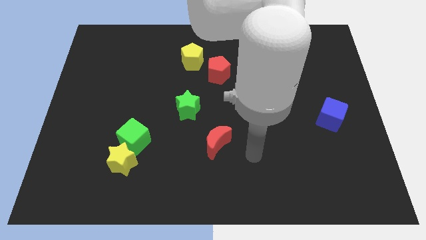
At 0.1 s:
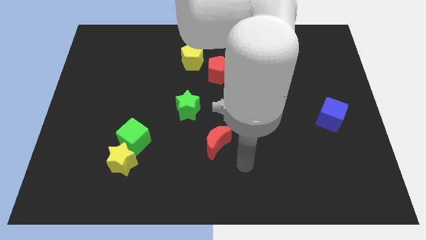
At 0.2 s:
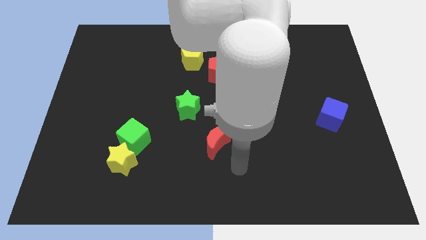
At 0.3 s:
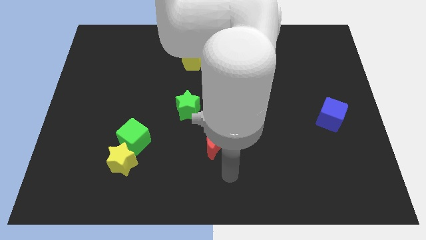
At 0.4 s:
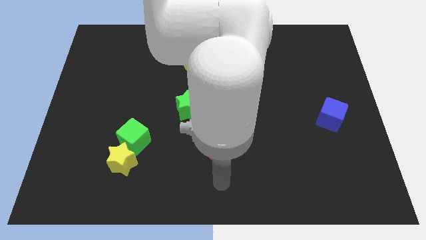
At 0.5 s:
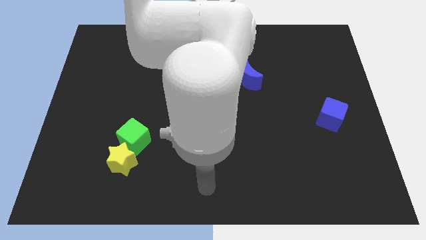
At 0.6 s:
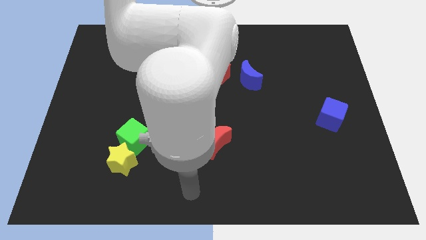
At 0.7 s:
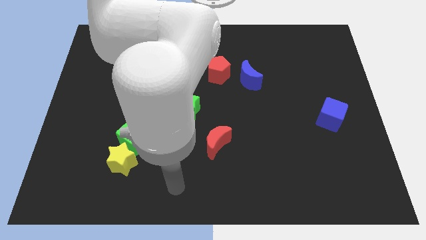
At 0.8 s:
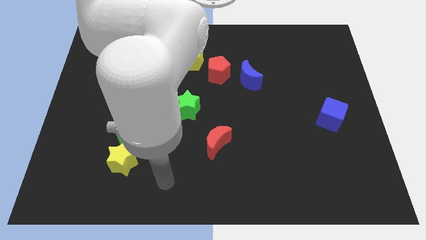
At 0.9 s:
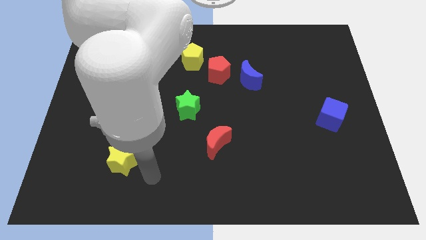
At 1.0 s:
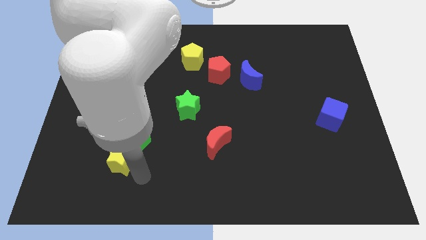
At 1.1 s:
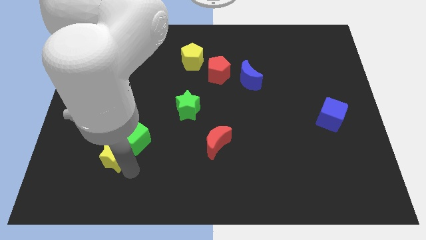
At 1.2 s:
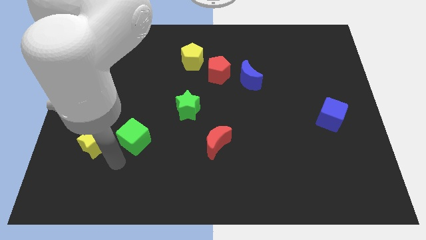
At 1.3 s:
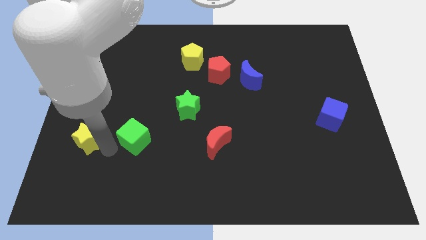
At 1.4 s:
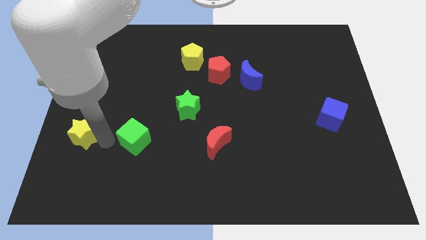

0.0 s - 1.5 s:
move the green cube away from the yellow star

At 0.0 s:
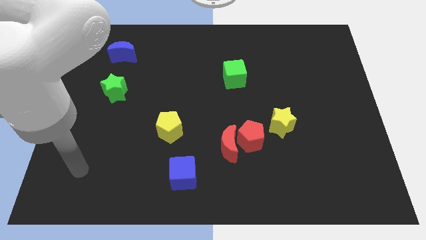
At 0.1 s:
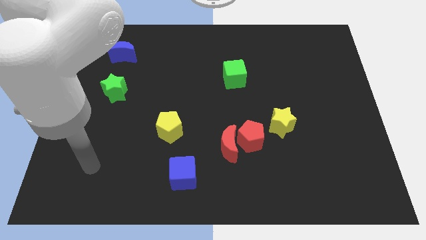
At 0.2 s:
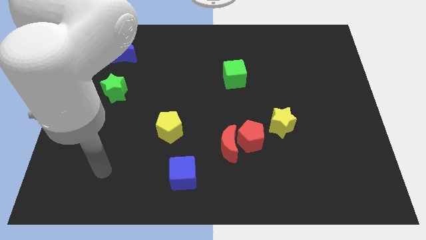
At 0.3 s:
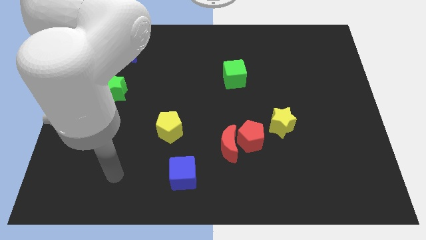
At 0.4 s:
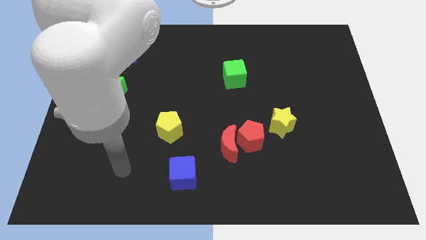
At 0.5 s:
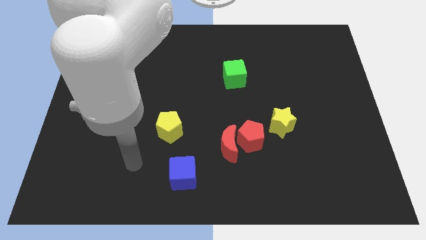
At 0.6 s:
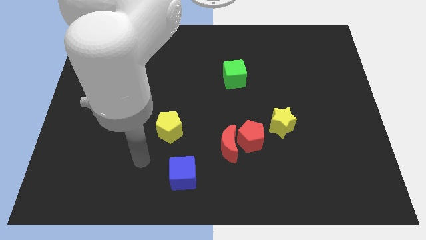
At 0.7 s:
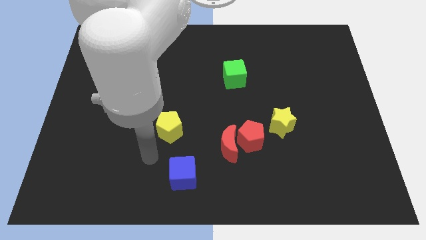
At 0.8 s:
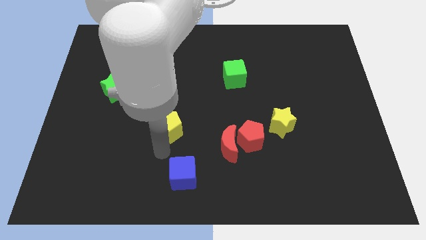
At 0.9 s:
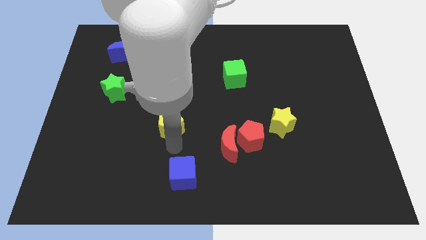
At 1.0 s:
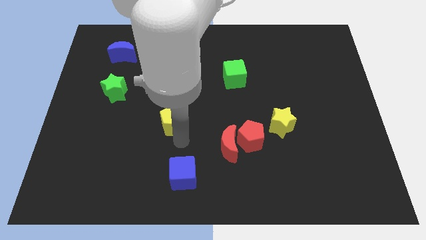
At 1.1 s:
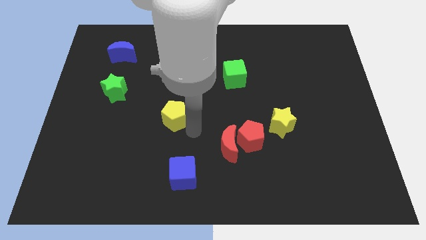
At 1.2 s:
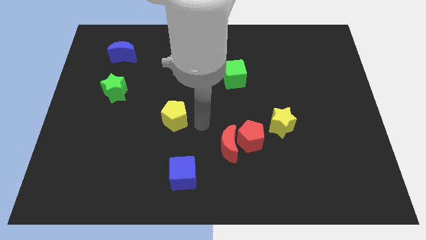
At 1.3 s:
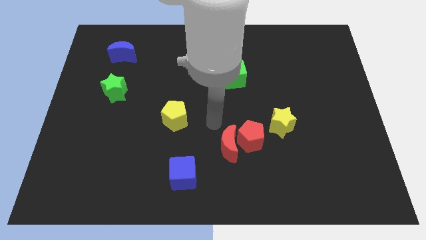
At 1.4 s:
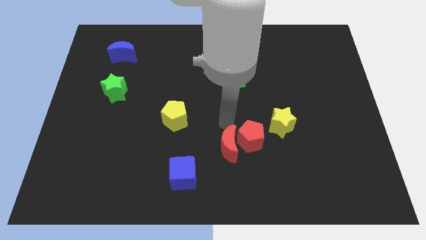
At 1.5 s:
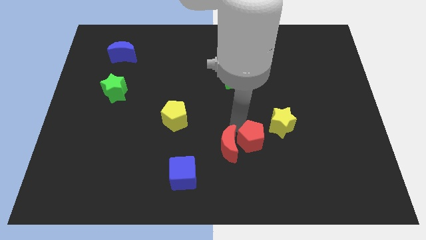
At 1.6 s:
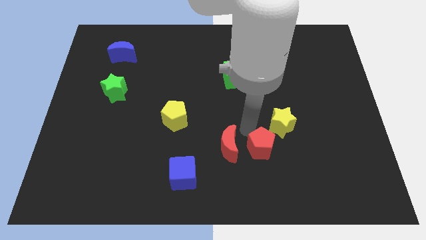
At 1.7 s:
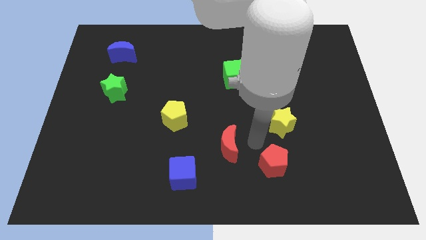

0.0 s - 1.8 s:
separate the red moon from the red pentagon

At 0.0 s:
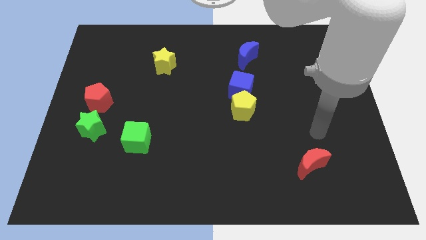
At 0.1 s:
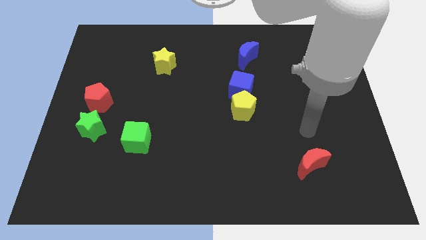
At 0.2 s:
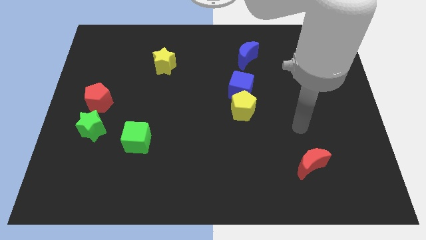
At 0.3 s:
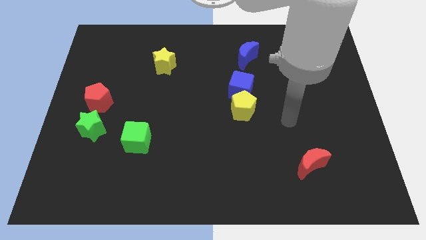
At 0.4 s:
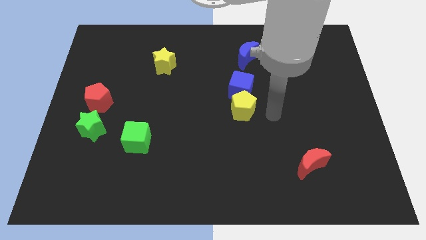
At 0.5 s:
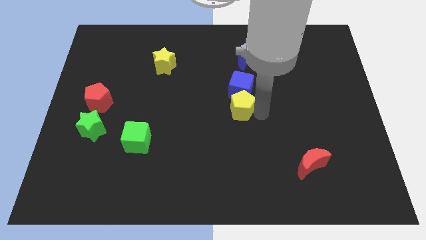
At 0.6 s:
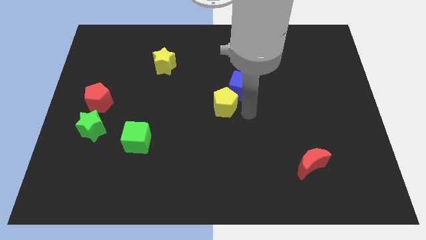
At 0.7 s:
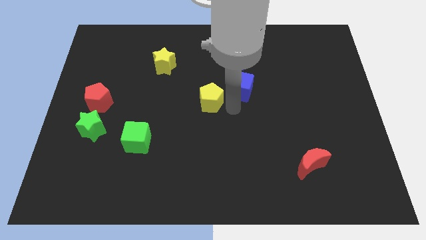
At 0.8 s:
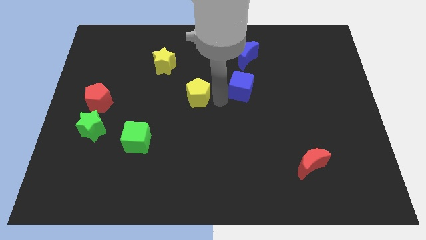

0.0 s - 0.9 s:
separate the blue cube from the yellow pentagon

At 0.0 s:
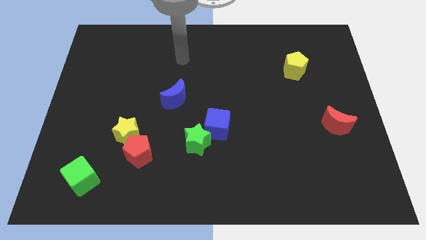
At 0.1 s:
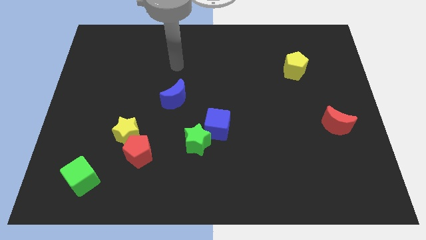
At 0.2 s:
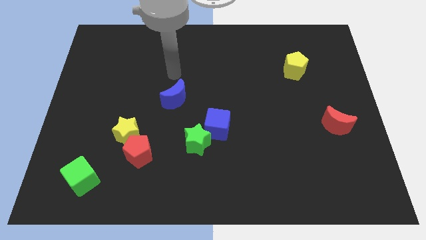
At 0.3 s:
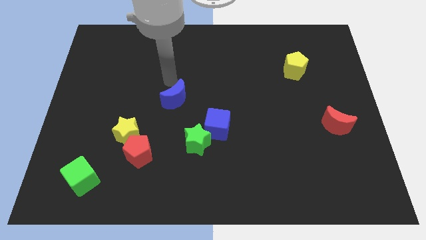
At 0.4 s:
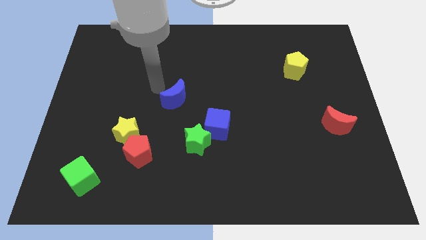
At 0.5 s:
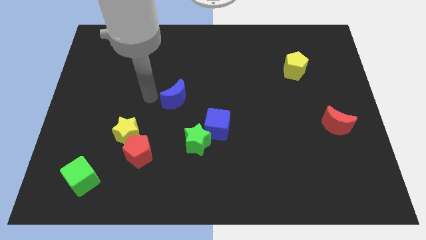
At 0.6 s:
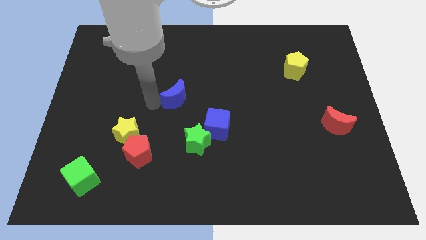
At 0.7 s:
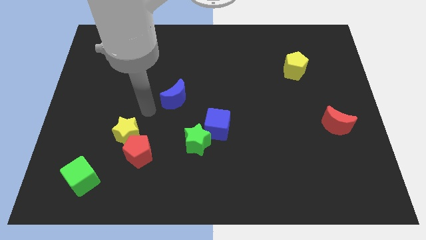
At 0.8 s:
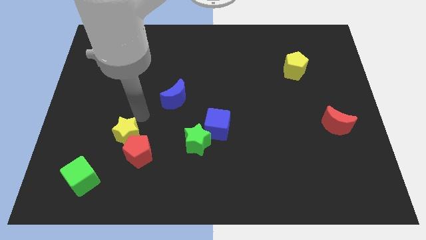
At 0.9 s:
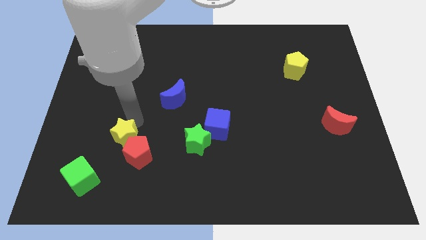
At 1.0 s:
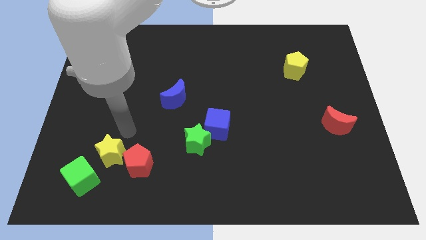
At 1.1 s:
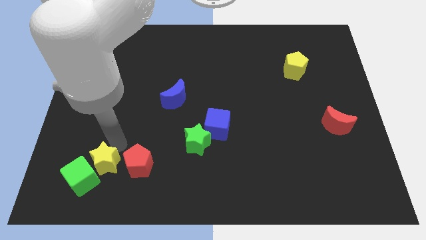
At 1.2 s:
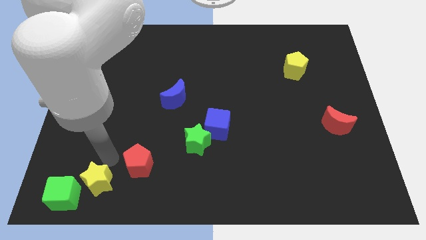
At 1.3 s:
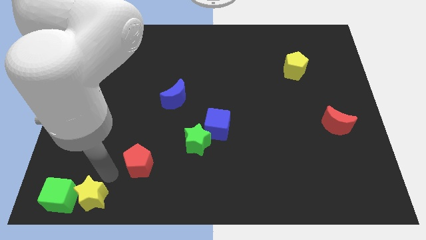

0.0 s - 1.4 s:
separate the red pentagon from the yellow star

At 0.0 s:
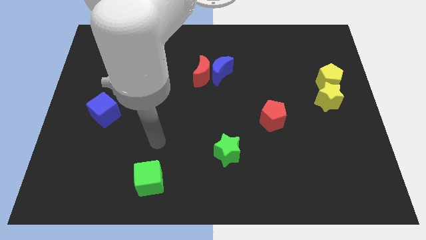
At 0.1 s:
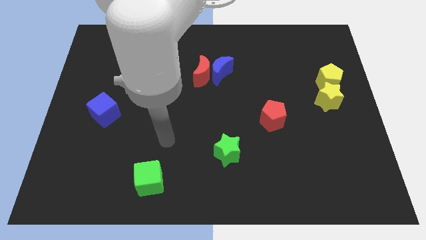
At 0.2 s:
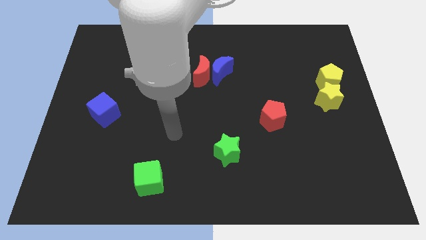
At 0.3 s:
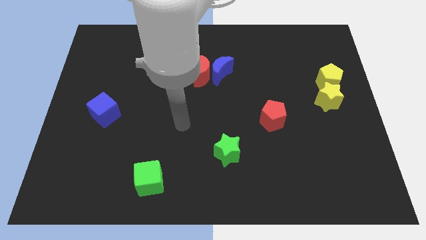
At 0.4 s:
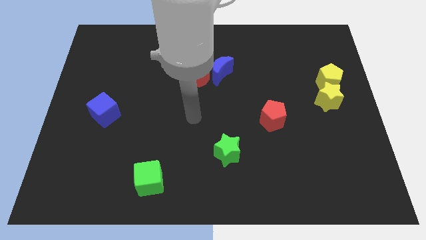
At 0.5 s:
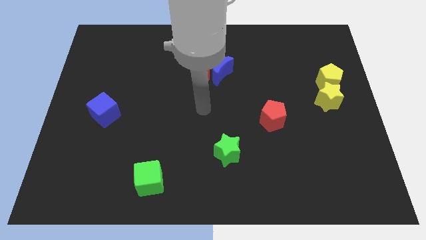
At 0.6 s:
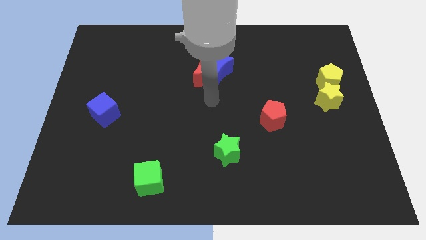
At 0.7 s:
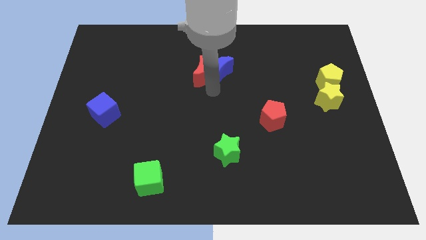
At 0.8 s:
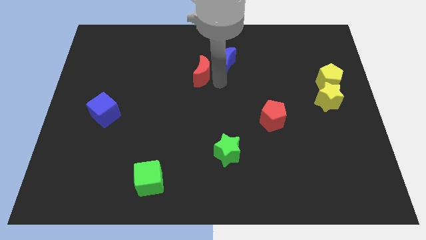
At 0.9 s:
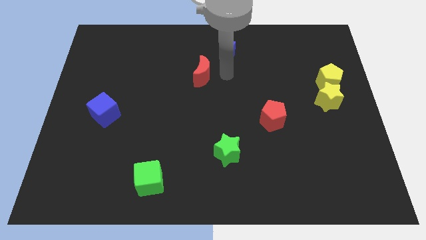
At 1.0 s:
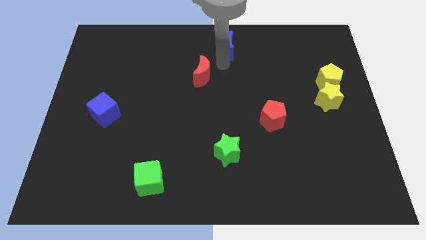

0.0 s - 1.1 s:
separate the red moon from the blue moon

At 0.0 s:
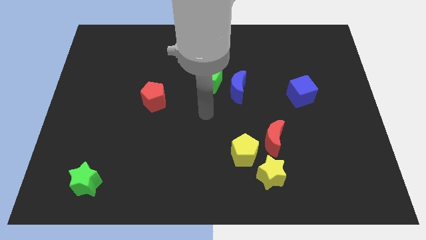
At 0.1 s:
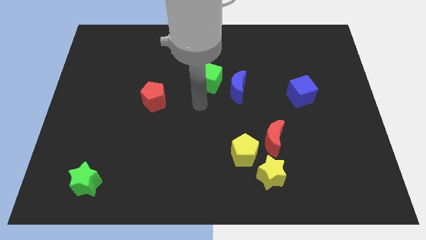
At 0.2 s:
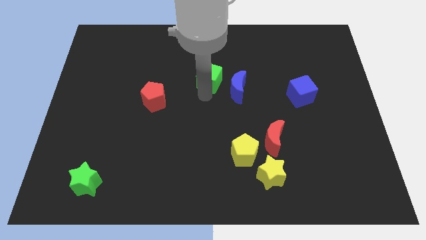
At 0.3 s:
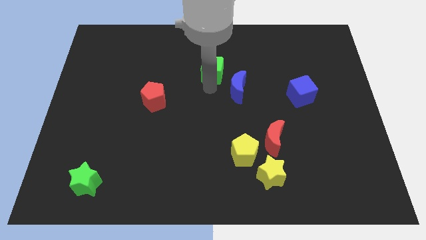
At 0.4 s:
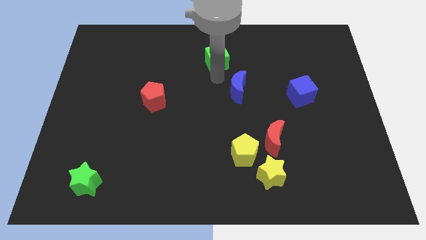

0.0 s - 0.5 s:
pull the blue moon apart from the green cube

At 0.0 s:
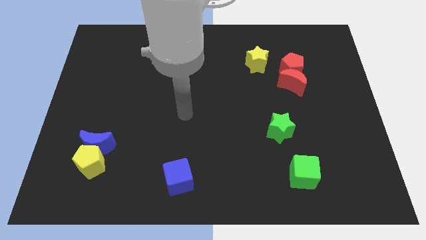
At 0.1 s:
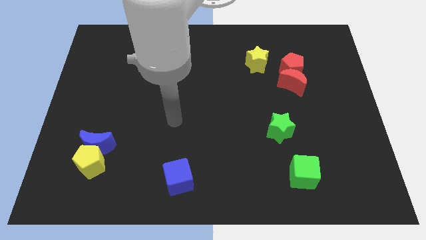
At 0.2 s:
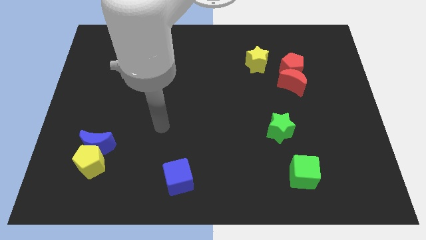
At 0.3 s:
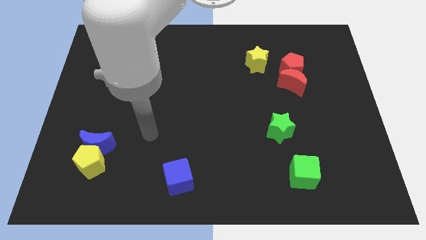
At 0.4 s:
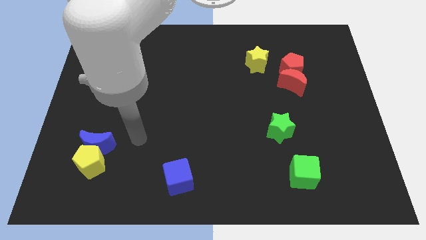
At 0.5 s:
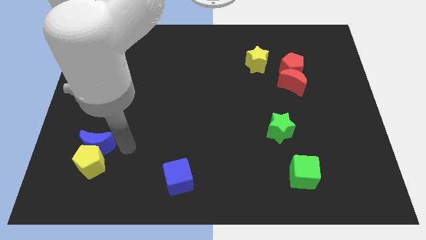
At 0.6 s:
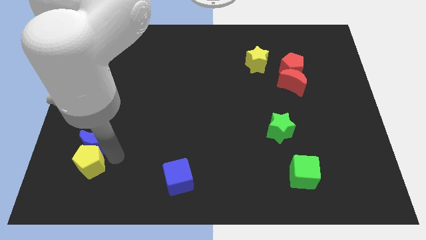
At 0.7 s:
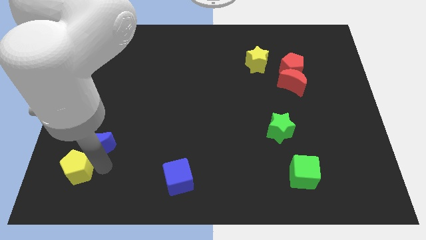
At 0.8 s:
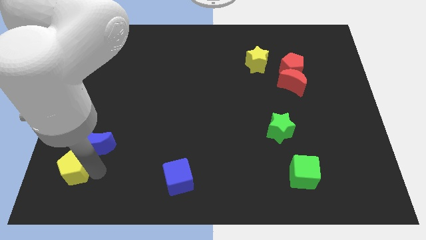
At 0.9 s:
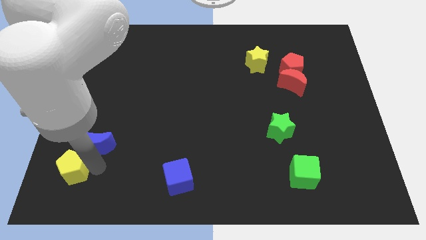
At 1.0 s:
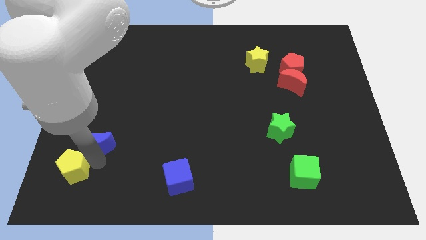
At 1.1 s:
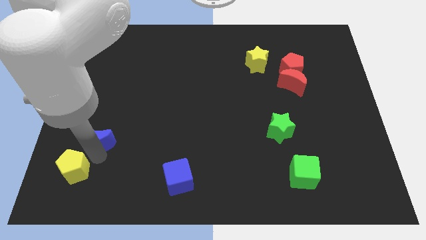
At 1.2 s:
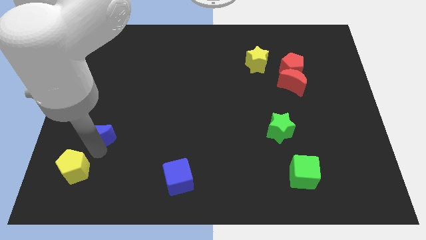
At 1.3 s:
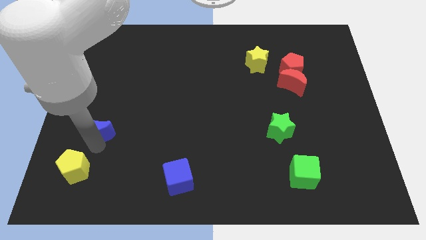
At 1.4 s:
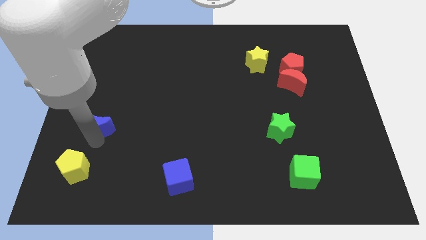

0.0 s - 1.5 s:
pull the blue moon apart from the yellow pentagon

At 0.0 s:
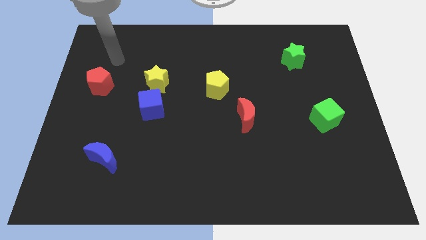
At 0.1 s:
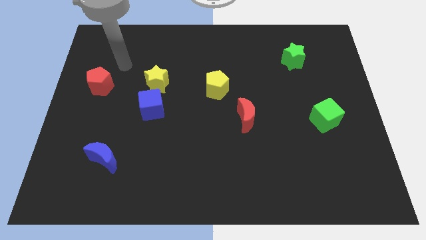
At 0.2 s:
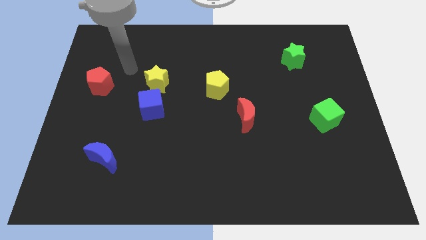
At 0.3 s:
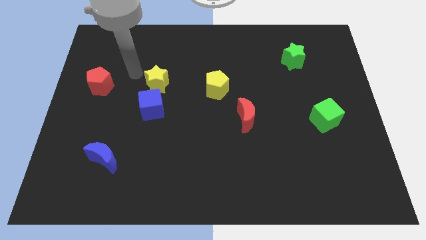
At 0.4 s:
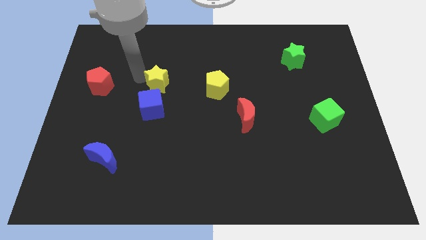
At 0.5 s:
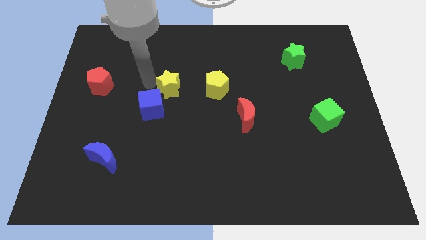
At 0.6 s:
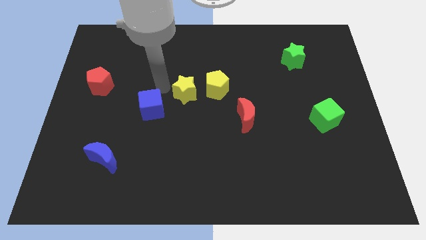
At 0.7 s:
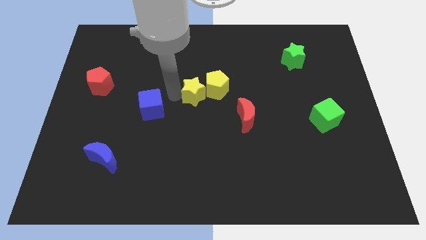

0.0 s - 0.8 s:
separate the blue cube from the yellow star
